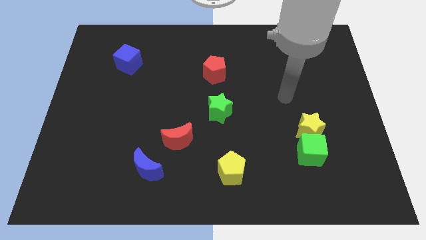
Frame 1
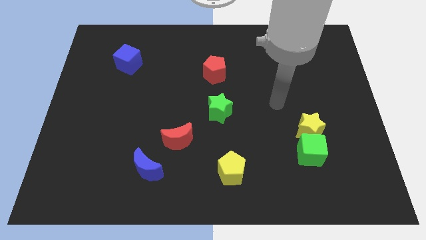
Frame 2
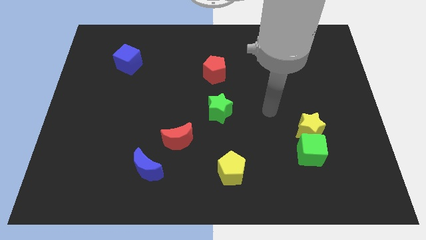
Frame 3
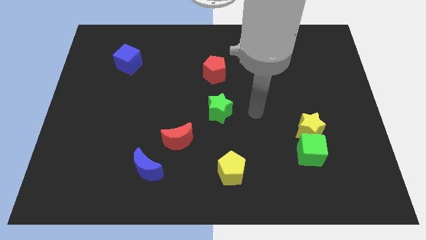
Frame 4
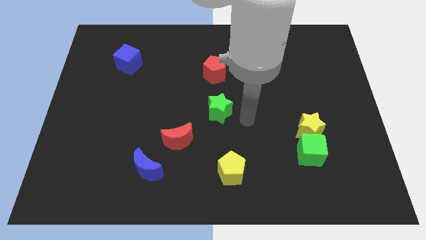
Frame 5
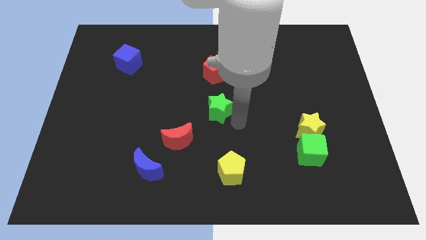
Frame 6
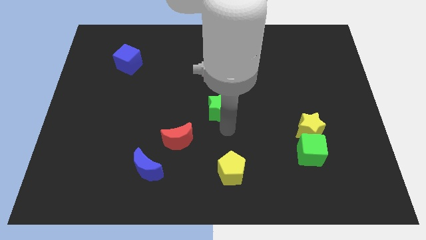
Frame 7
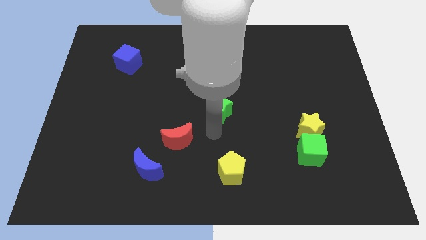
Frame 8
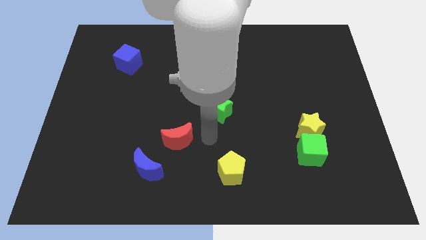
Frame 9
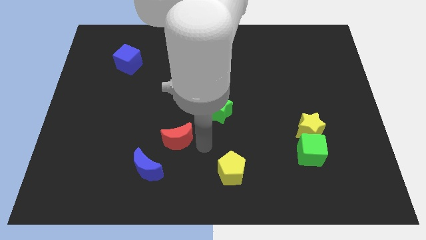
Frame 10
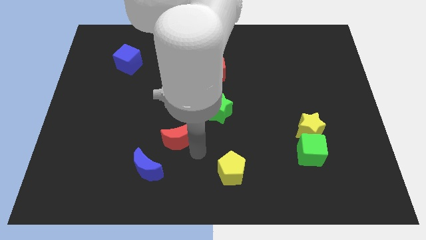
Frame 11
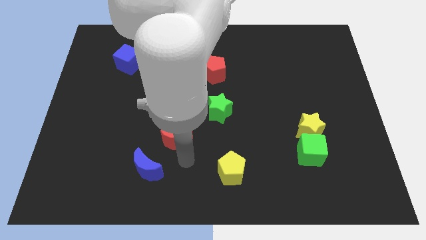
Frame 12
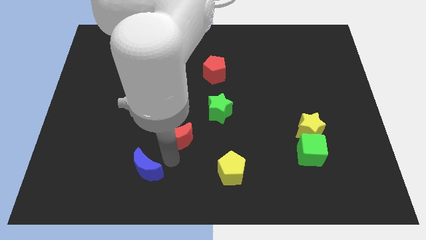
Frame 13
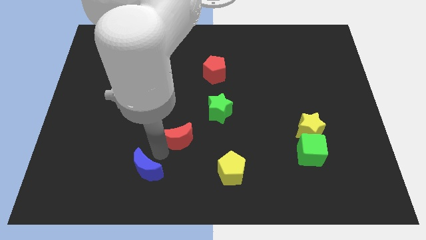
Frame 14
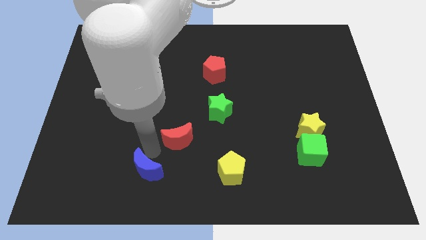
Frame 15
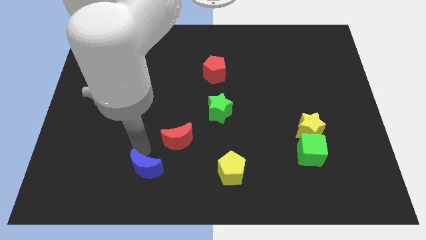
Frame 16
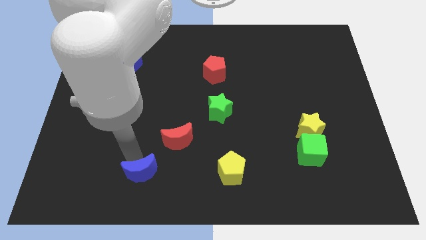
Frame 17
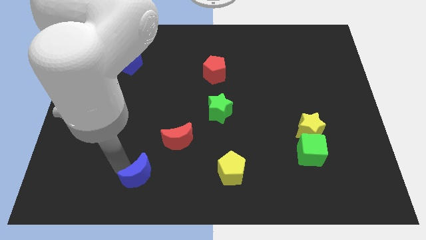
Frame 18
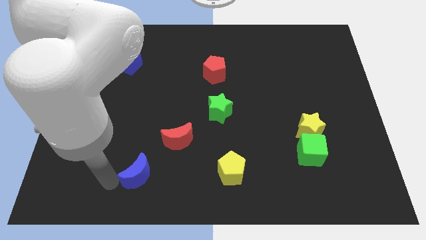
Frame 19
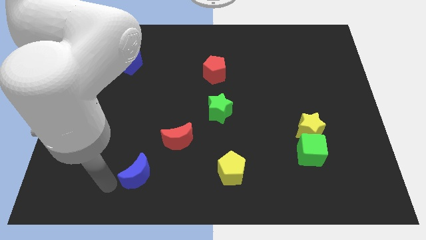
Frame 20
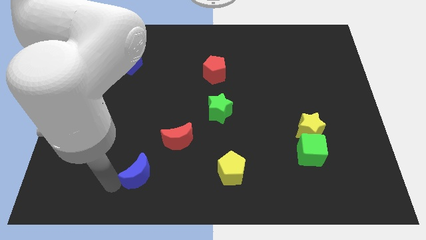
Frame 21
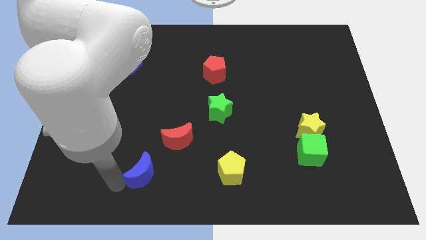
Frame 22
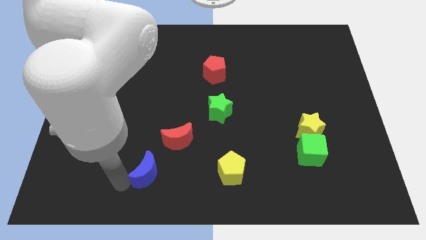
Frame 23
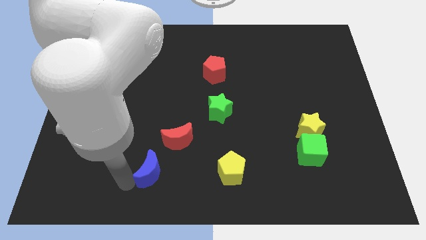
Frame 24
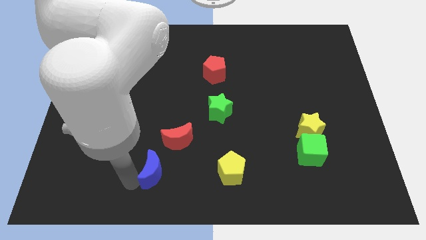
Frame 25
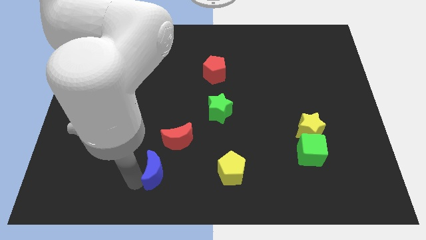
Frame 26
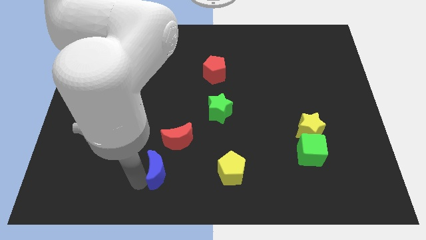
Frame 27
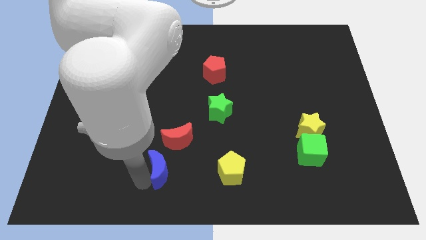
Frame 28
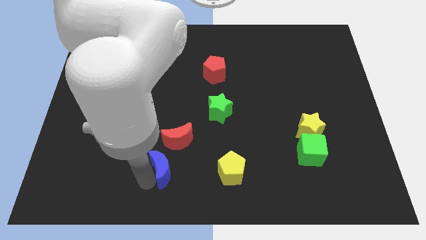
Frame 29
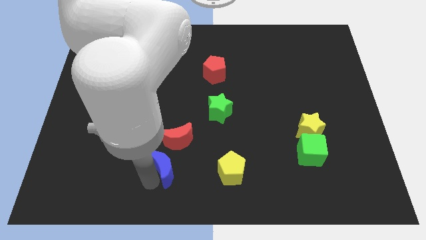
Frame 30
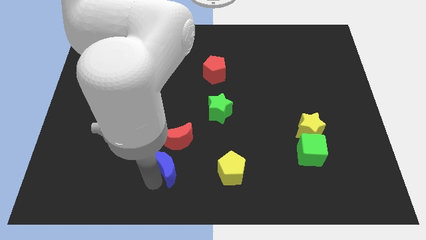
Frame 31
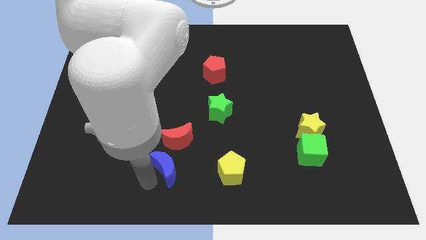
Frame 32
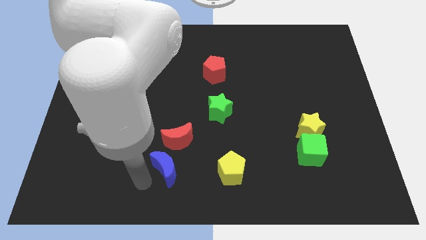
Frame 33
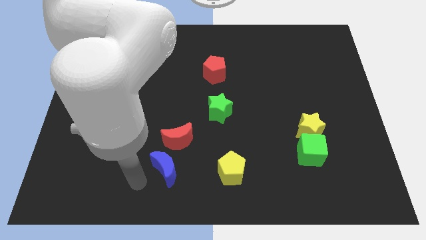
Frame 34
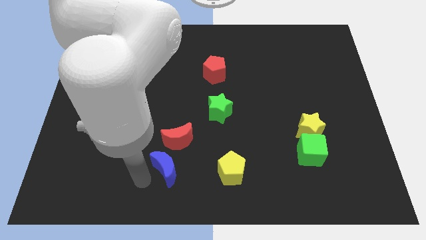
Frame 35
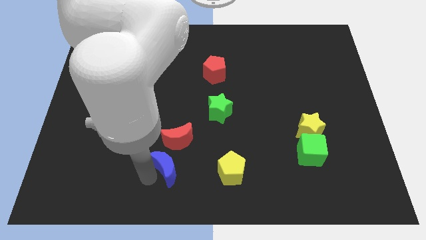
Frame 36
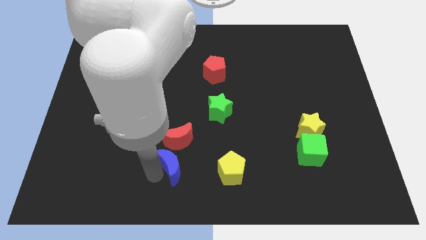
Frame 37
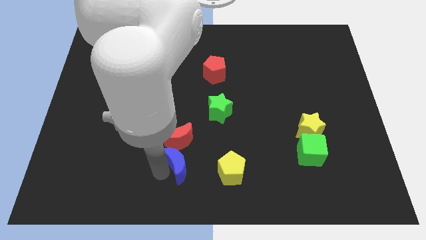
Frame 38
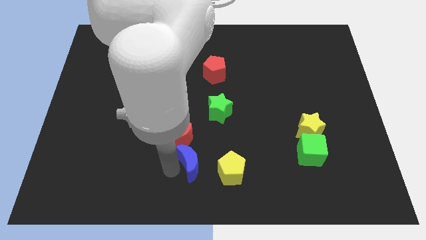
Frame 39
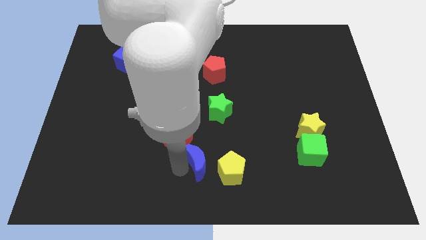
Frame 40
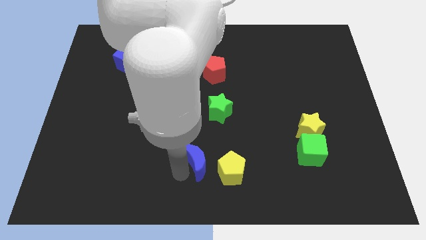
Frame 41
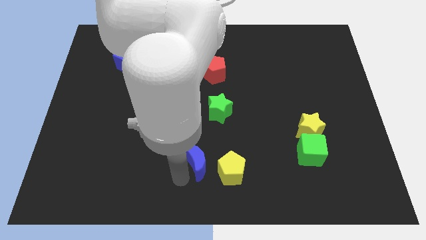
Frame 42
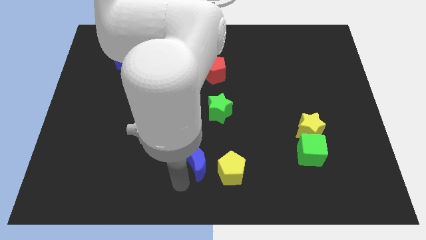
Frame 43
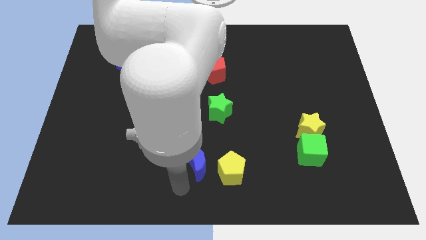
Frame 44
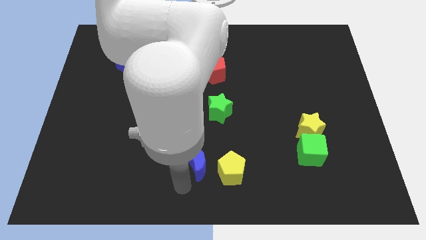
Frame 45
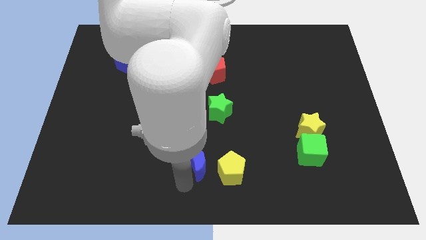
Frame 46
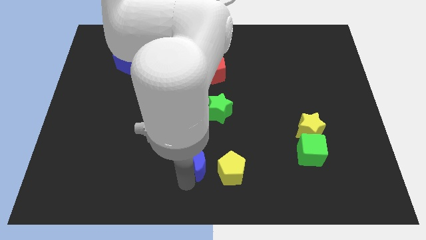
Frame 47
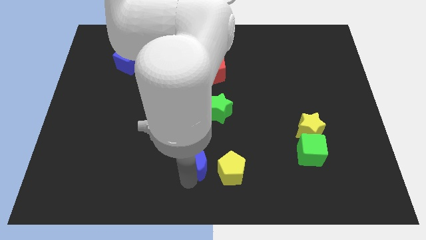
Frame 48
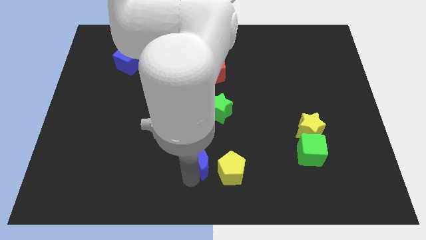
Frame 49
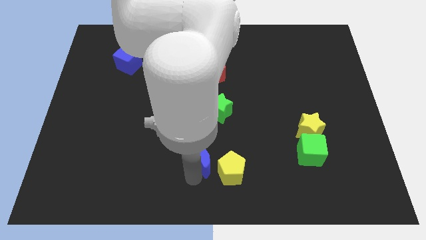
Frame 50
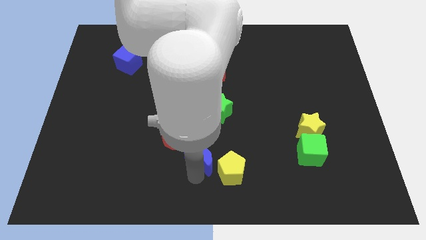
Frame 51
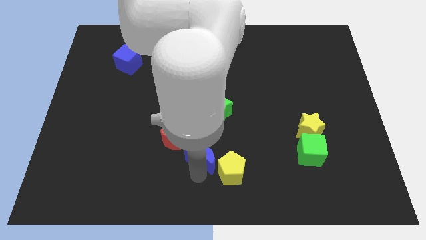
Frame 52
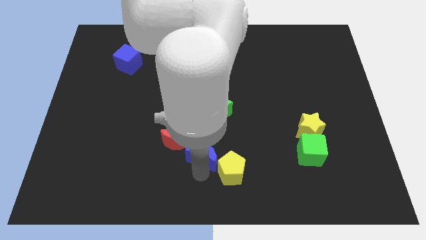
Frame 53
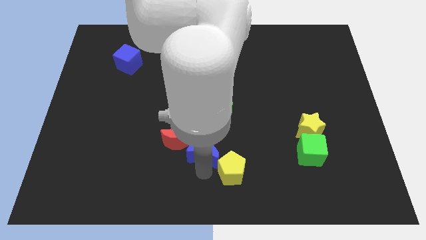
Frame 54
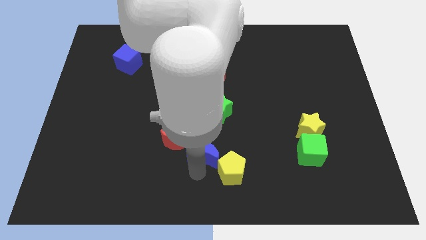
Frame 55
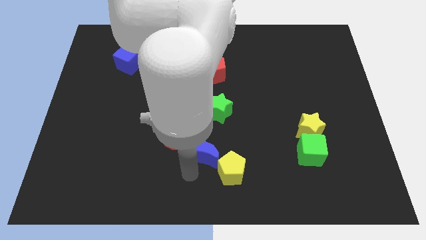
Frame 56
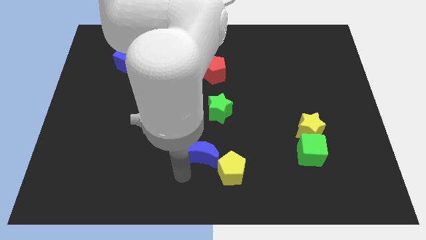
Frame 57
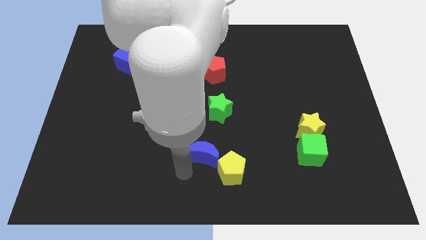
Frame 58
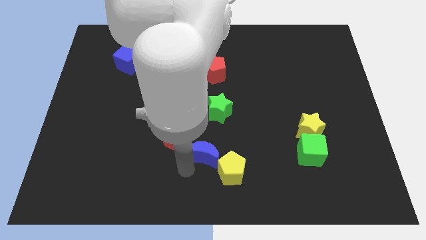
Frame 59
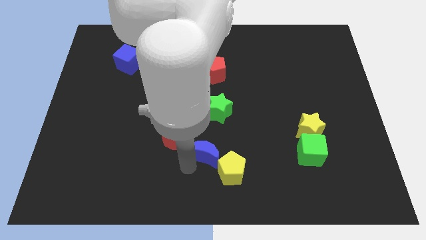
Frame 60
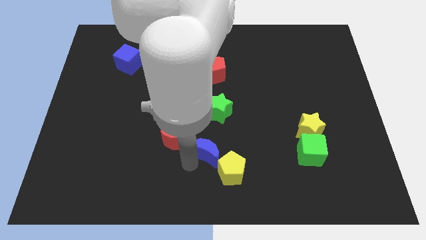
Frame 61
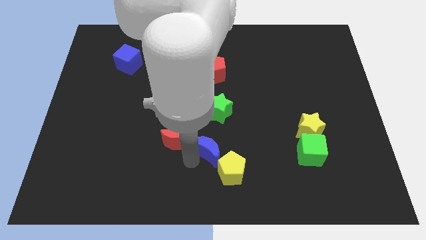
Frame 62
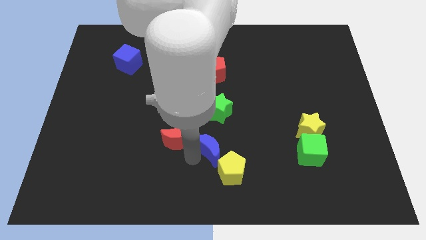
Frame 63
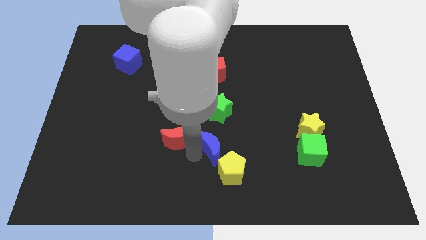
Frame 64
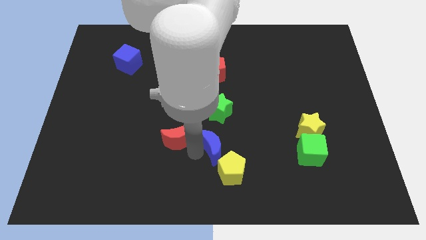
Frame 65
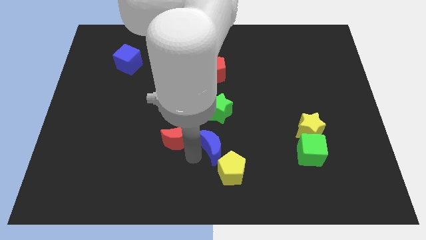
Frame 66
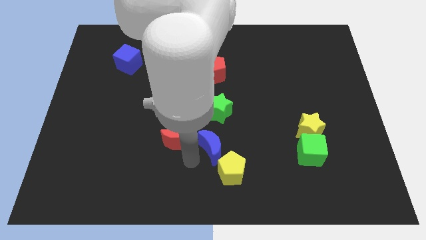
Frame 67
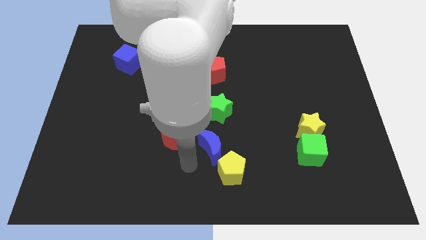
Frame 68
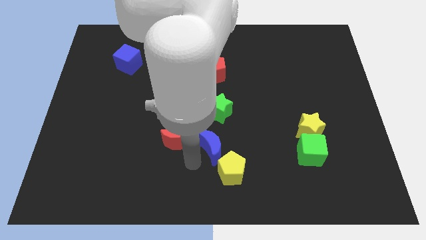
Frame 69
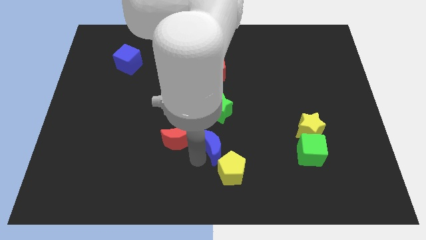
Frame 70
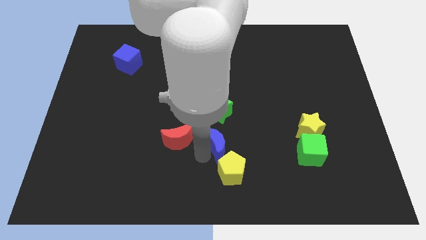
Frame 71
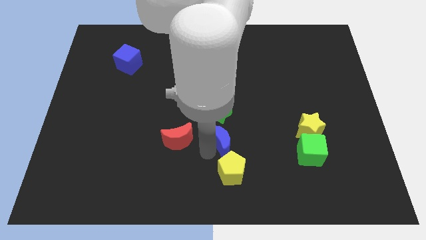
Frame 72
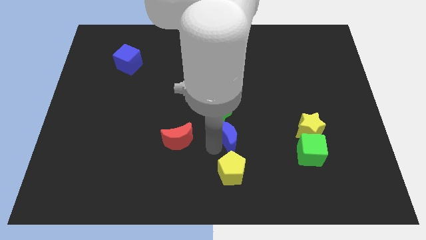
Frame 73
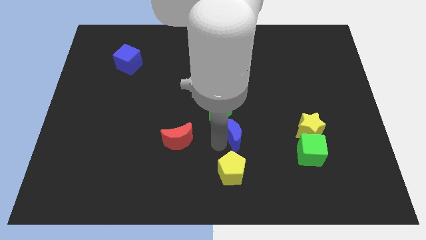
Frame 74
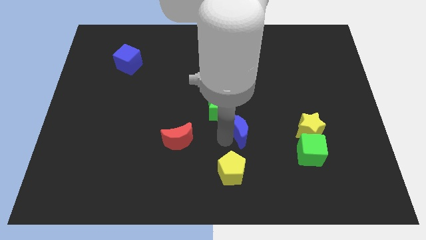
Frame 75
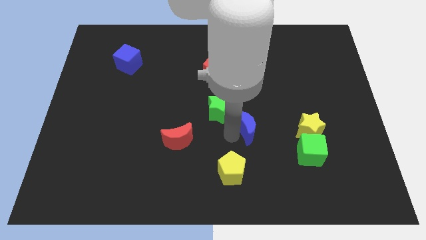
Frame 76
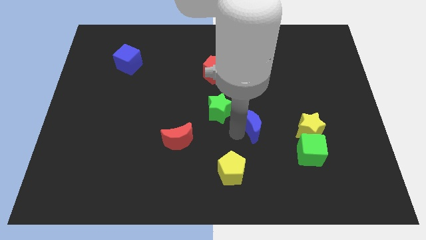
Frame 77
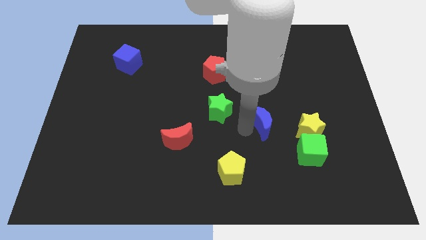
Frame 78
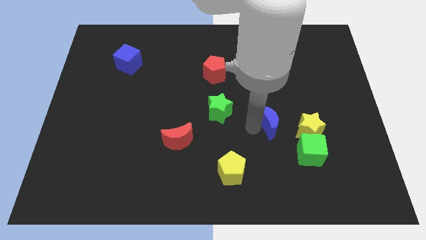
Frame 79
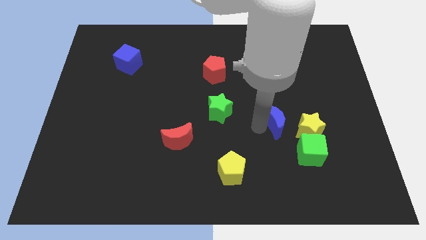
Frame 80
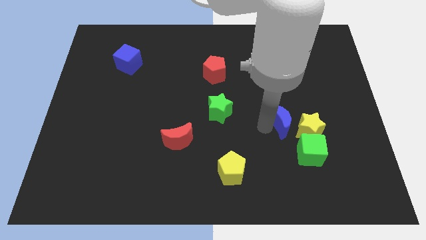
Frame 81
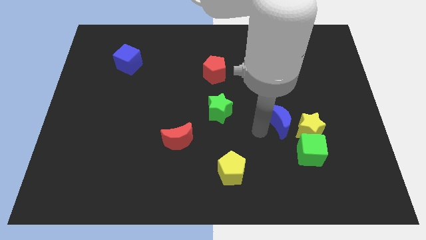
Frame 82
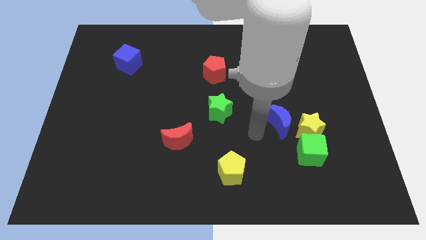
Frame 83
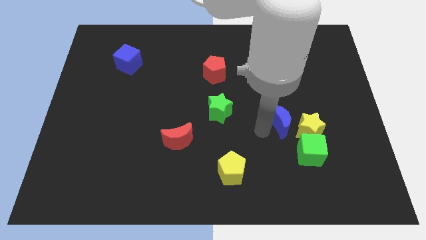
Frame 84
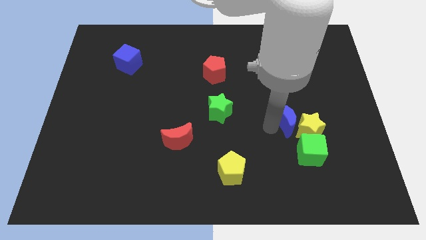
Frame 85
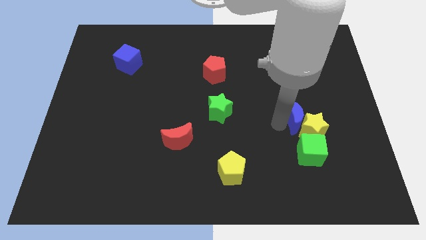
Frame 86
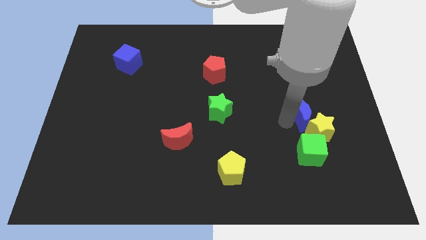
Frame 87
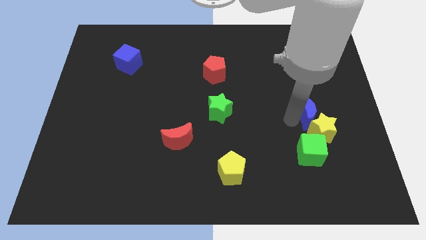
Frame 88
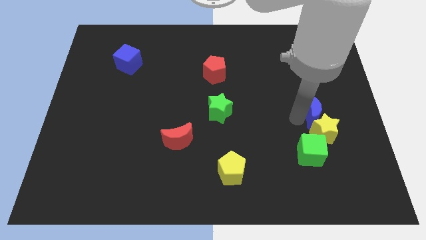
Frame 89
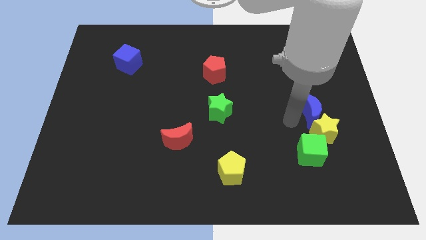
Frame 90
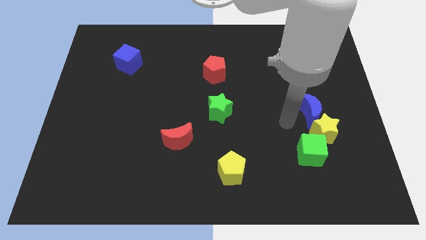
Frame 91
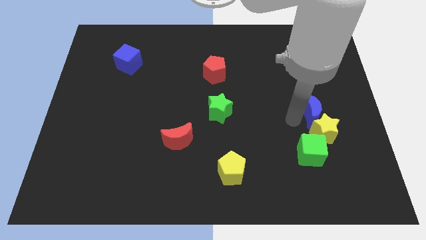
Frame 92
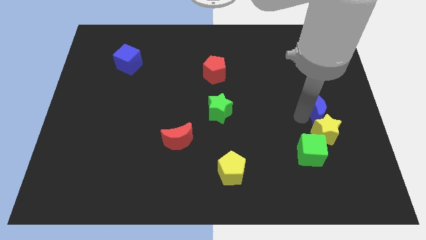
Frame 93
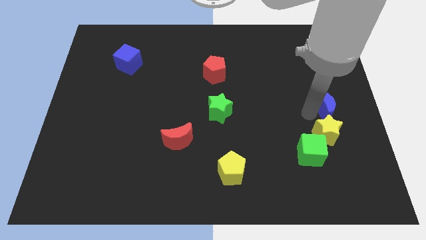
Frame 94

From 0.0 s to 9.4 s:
push the blue moon to the right side of the board
